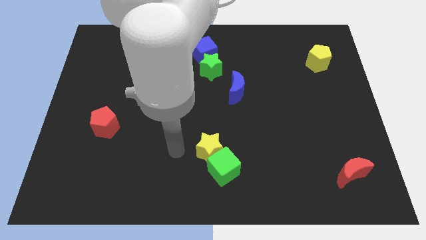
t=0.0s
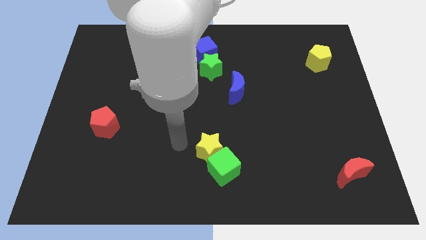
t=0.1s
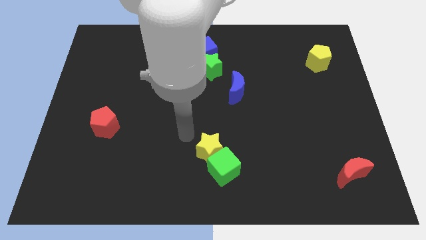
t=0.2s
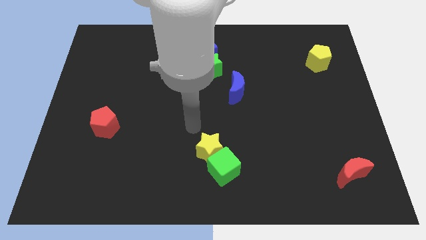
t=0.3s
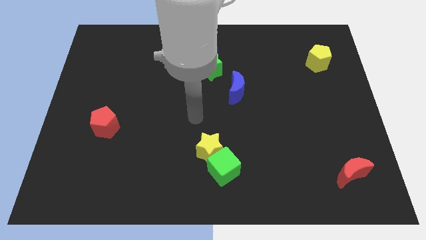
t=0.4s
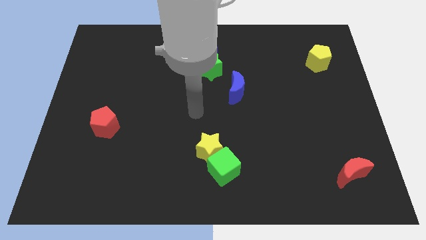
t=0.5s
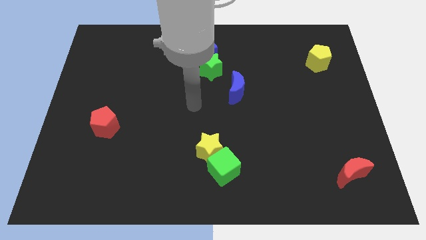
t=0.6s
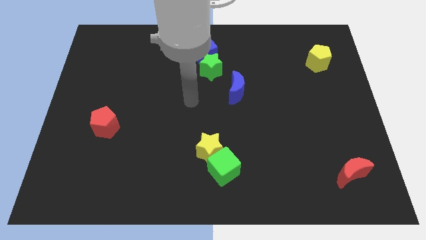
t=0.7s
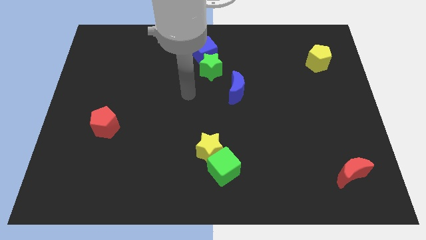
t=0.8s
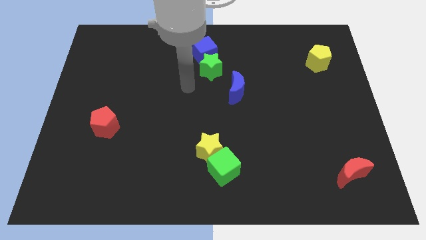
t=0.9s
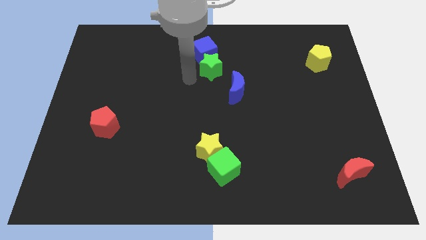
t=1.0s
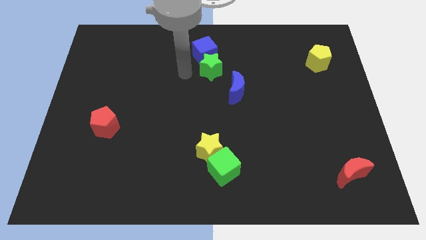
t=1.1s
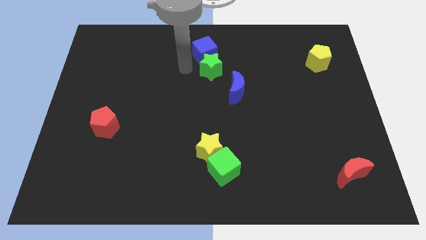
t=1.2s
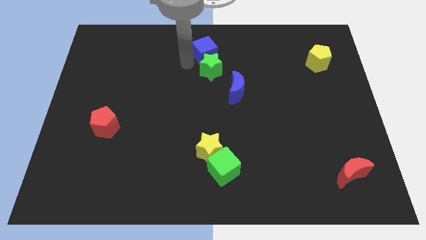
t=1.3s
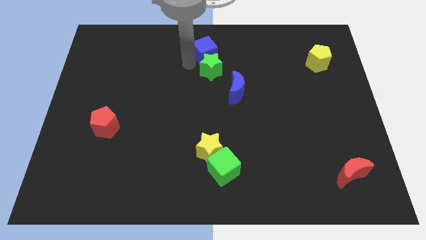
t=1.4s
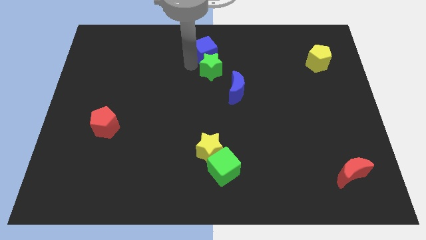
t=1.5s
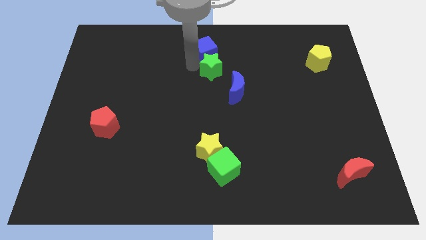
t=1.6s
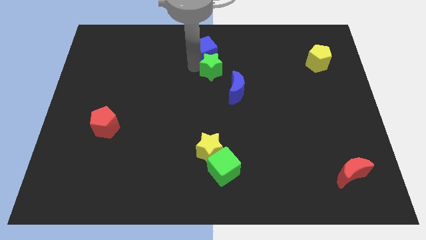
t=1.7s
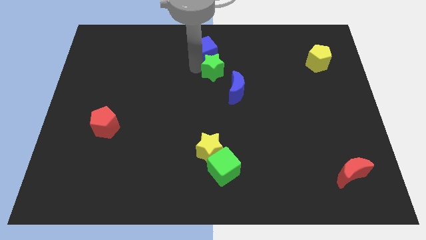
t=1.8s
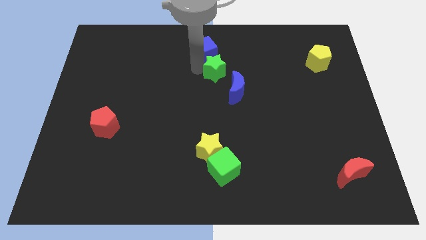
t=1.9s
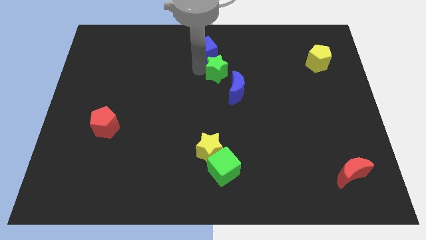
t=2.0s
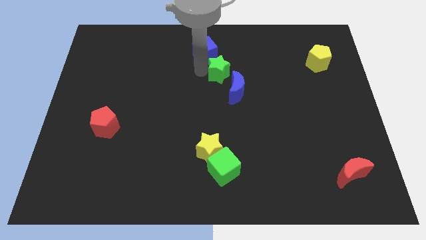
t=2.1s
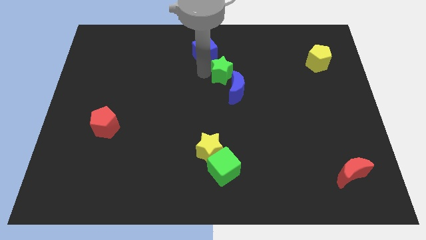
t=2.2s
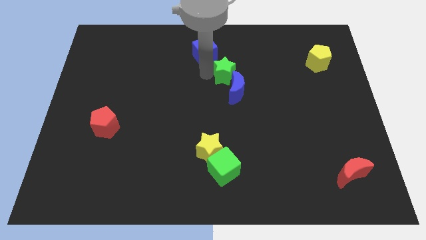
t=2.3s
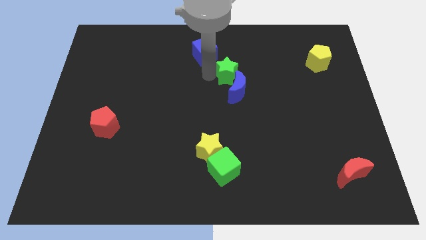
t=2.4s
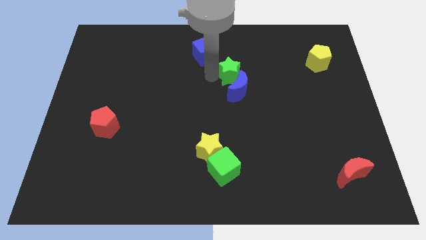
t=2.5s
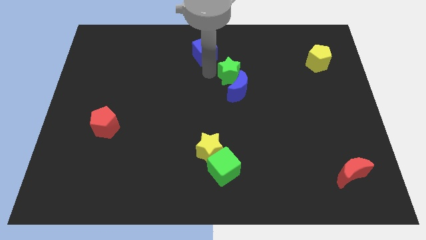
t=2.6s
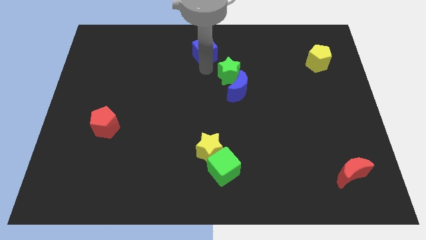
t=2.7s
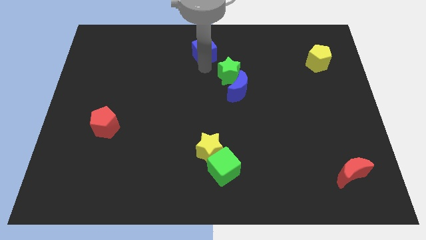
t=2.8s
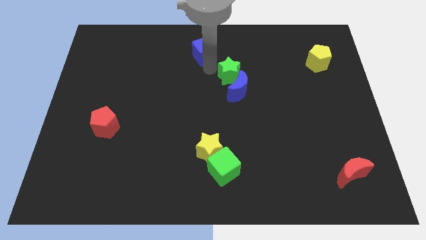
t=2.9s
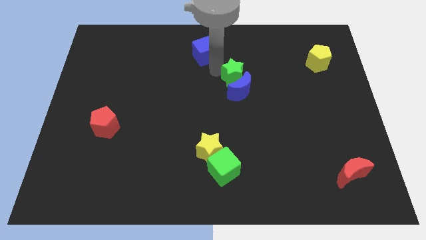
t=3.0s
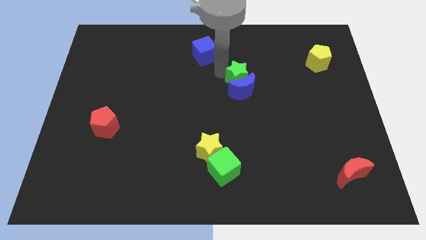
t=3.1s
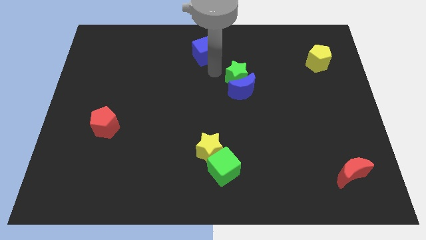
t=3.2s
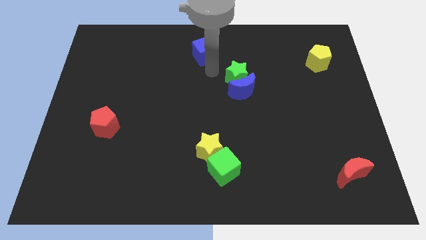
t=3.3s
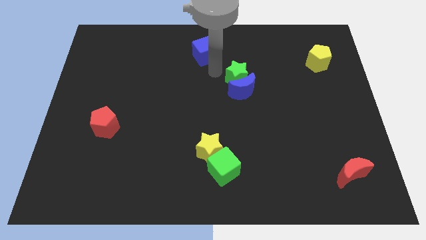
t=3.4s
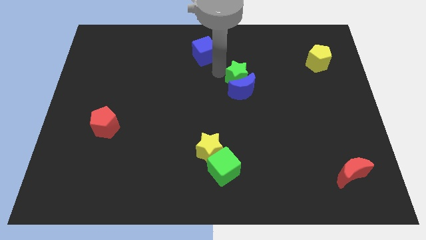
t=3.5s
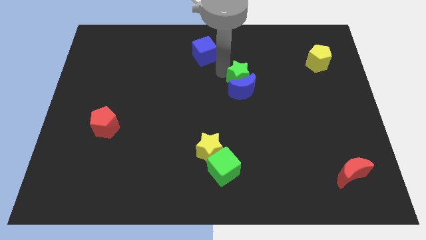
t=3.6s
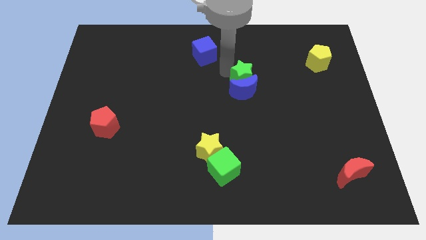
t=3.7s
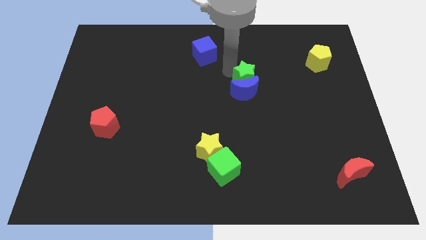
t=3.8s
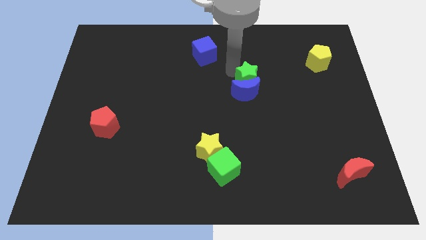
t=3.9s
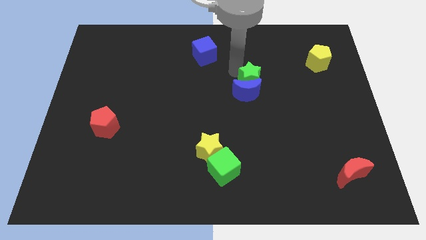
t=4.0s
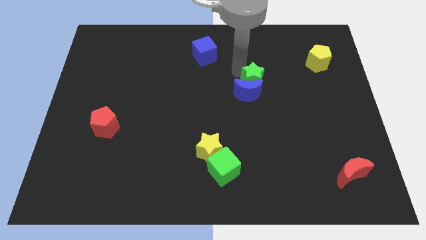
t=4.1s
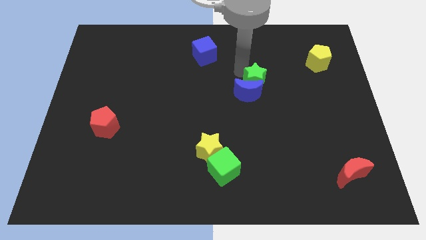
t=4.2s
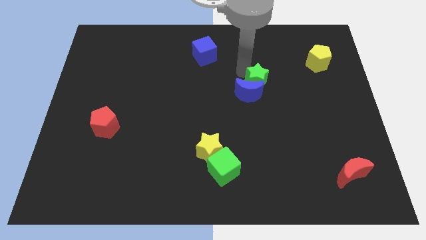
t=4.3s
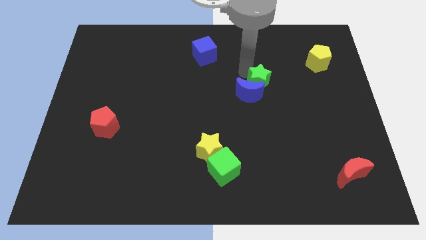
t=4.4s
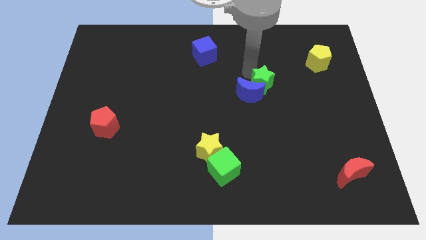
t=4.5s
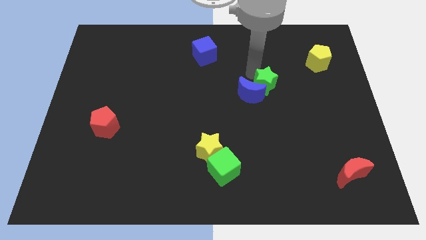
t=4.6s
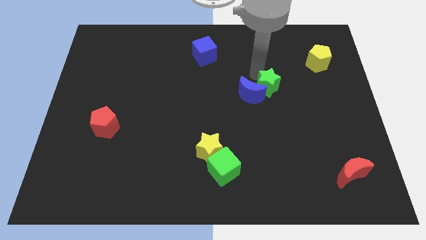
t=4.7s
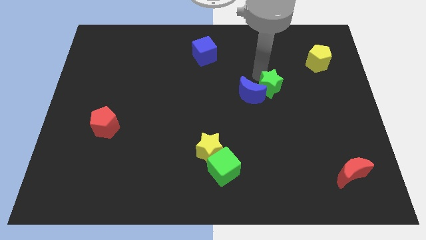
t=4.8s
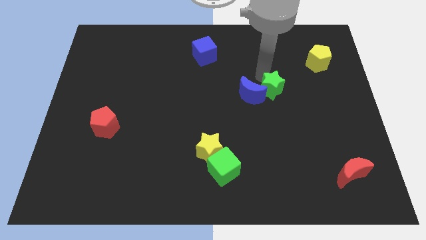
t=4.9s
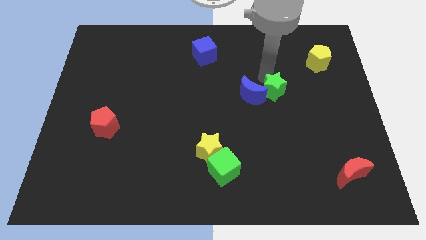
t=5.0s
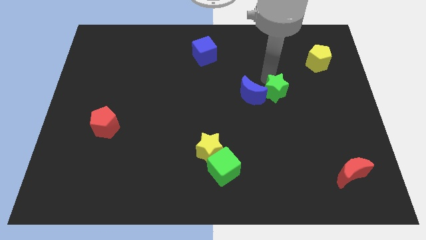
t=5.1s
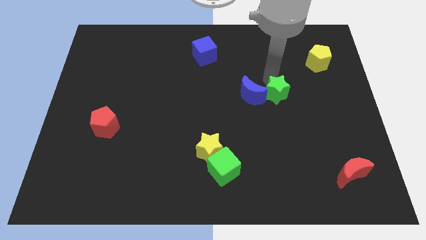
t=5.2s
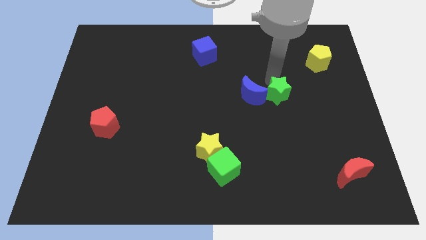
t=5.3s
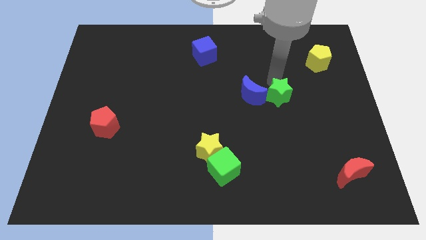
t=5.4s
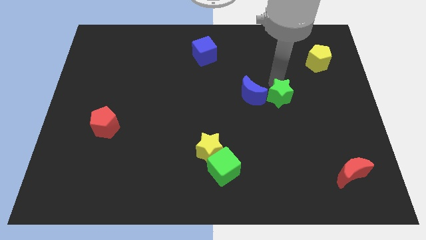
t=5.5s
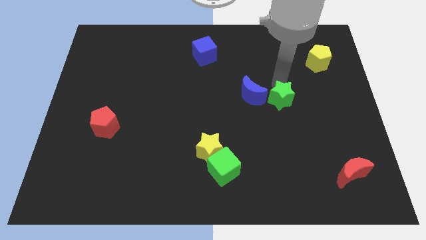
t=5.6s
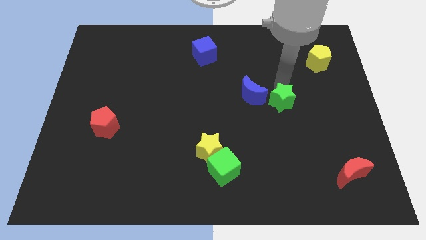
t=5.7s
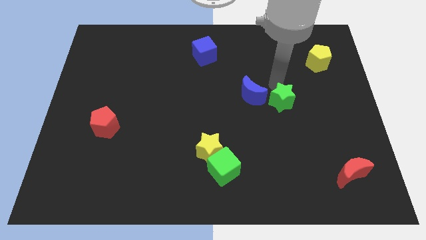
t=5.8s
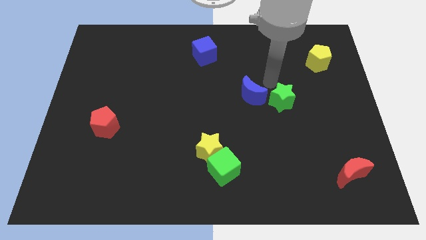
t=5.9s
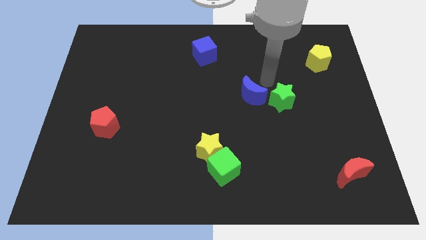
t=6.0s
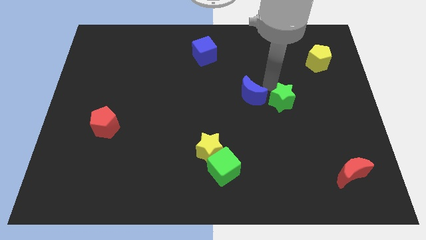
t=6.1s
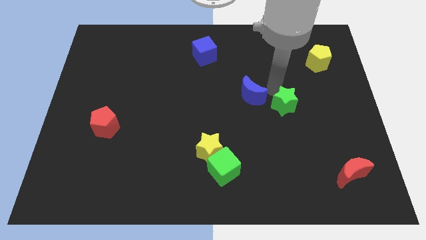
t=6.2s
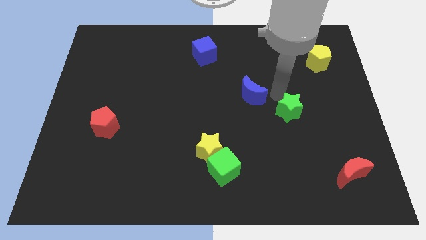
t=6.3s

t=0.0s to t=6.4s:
move the green star downwards and to the right

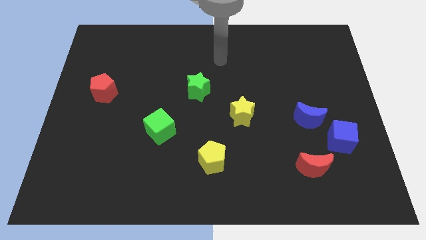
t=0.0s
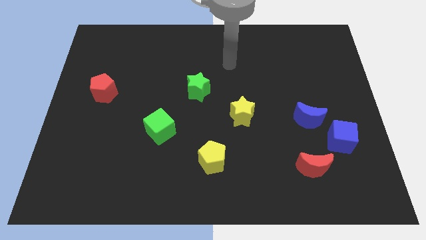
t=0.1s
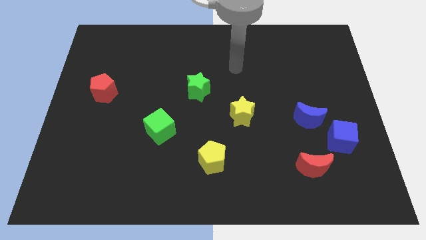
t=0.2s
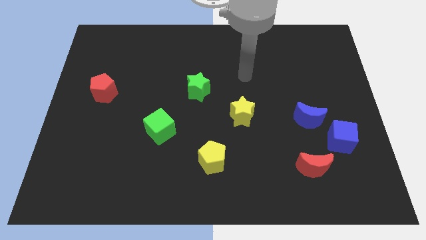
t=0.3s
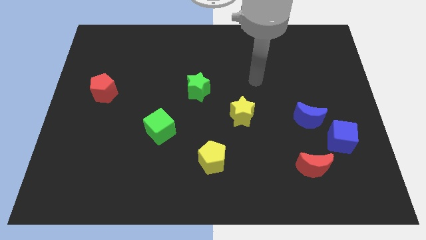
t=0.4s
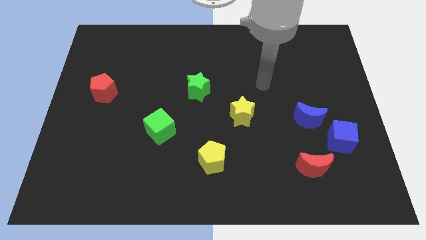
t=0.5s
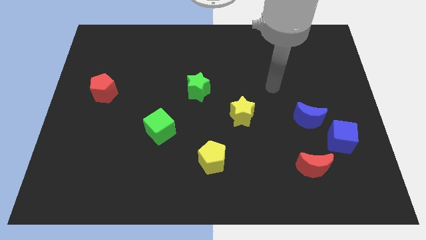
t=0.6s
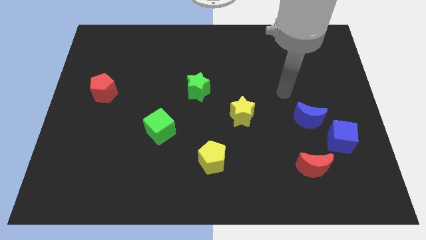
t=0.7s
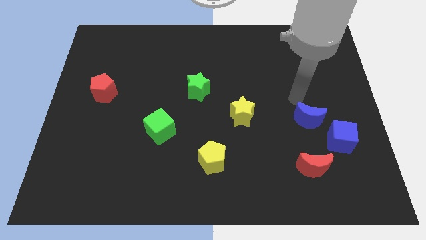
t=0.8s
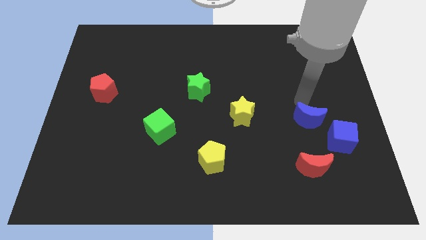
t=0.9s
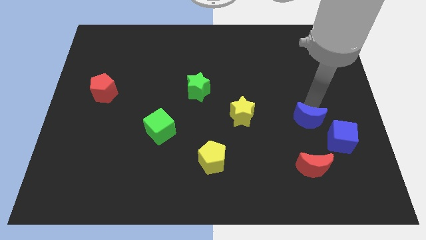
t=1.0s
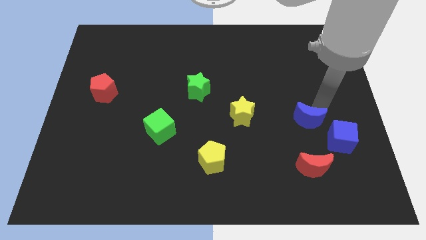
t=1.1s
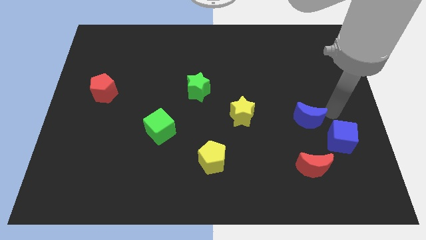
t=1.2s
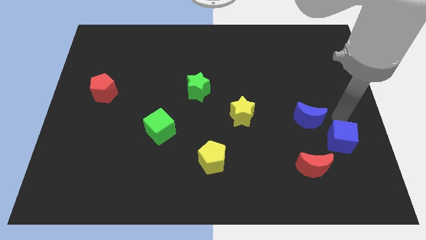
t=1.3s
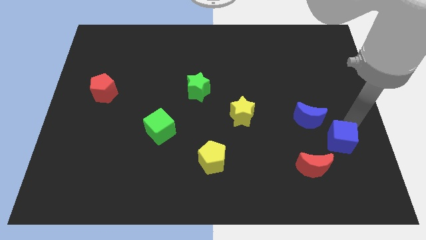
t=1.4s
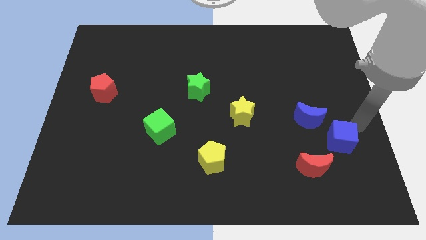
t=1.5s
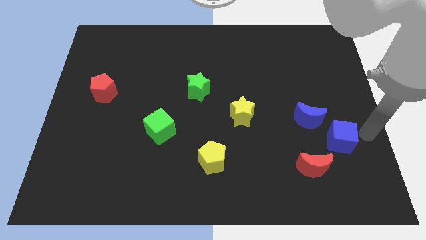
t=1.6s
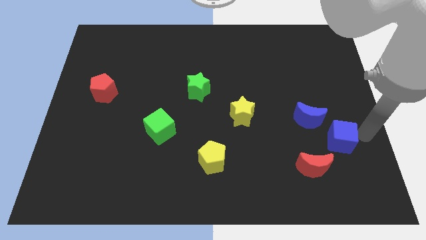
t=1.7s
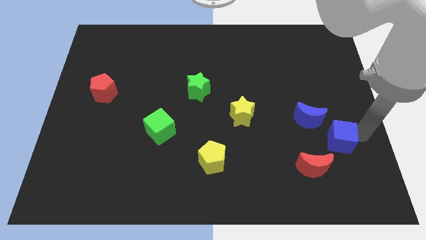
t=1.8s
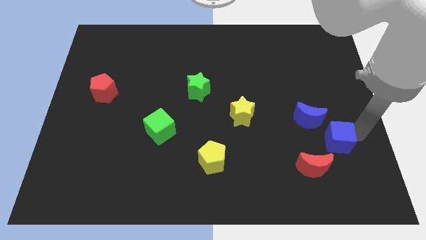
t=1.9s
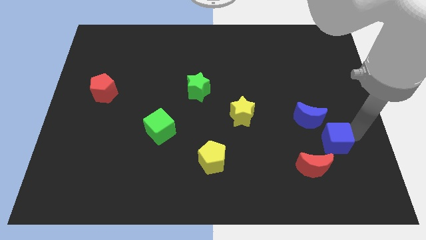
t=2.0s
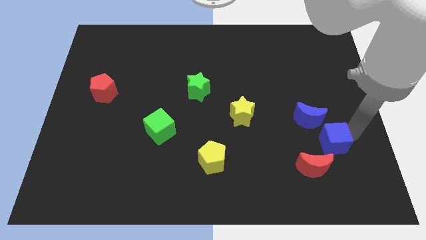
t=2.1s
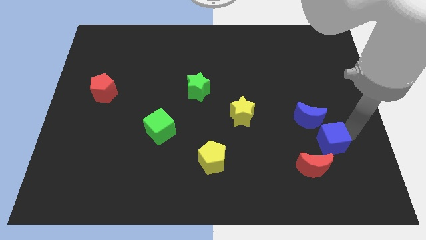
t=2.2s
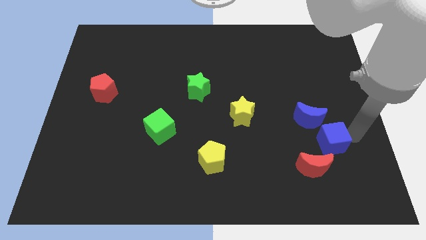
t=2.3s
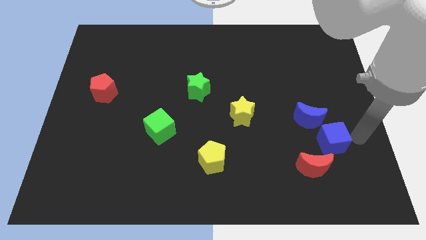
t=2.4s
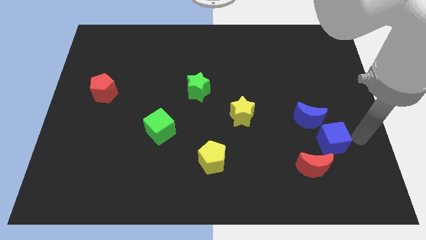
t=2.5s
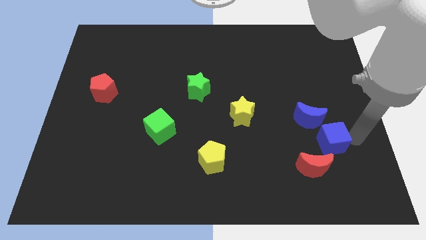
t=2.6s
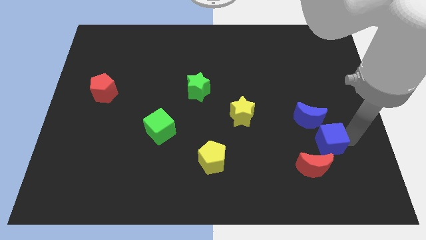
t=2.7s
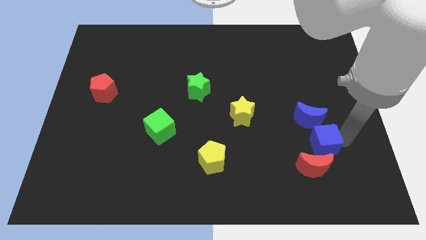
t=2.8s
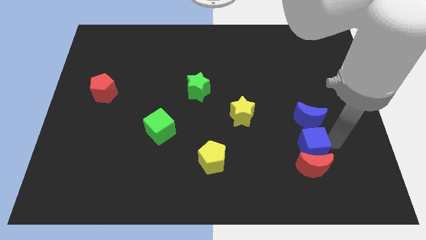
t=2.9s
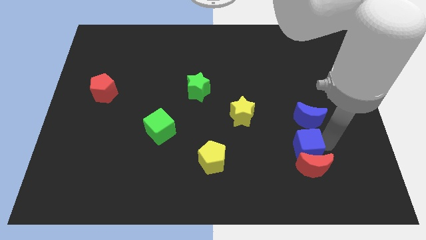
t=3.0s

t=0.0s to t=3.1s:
push the blue cube left slightly
